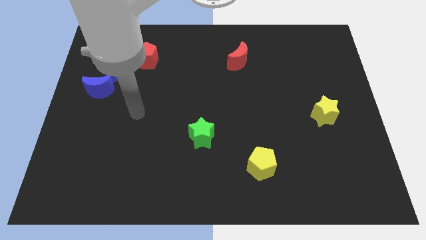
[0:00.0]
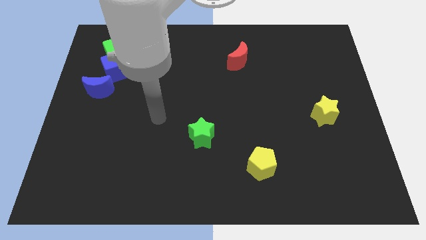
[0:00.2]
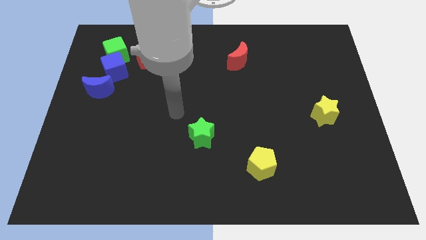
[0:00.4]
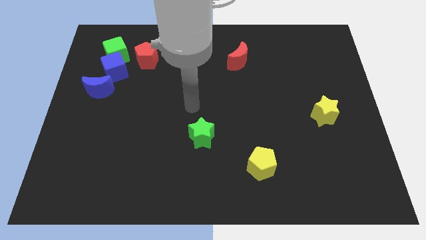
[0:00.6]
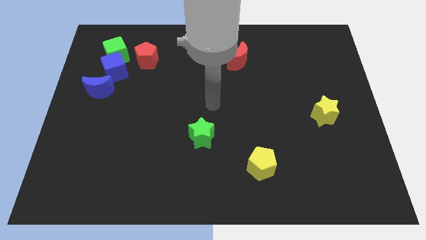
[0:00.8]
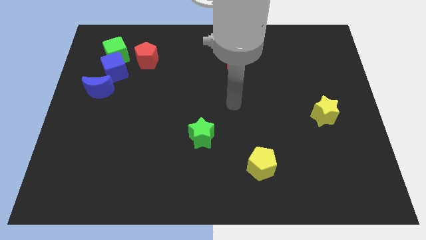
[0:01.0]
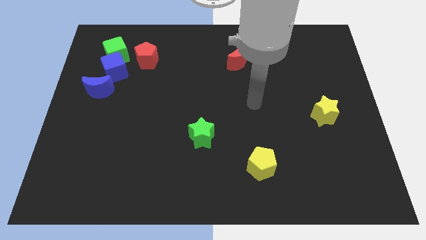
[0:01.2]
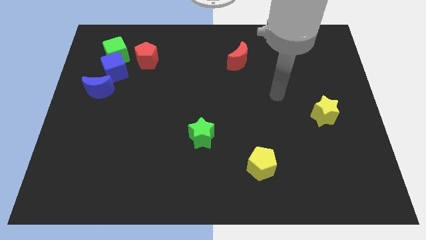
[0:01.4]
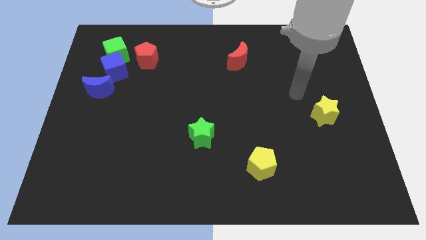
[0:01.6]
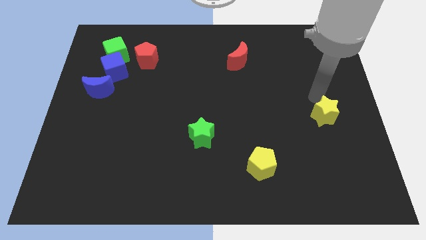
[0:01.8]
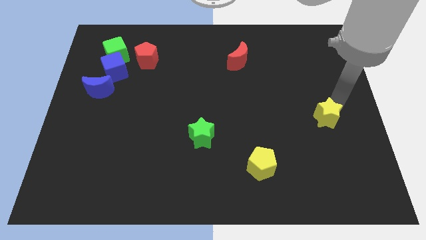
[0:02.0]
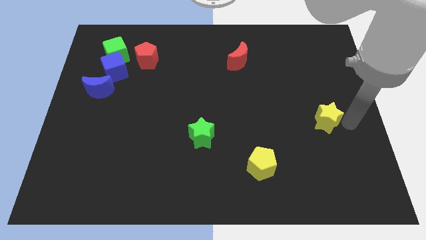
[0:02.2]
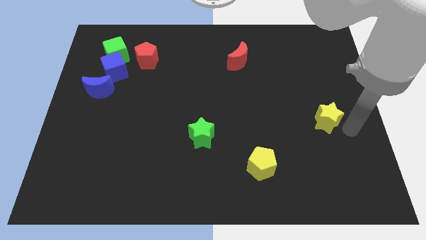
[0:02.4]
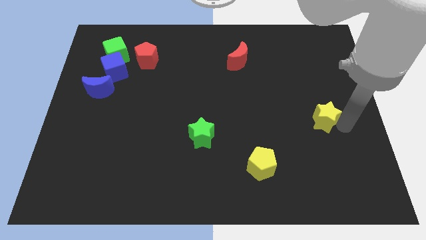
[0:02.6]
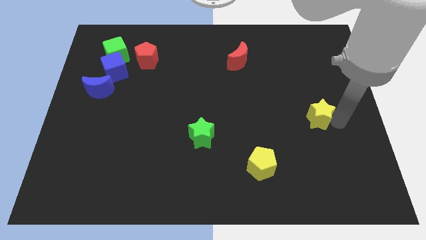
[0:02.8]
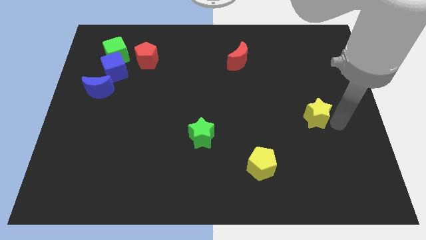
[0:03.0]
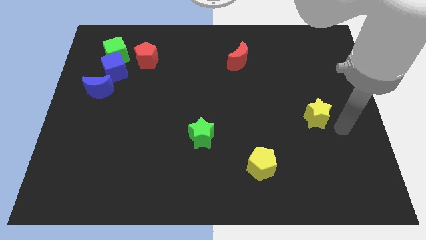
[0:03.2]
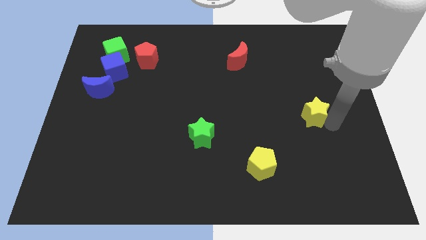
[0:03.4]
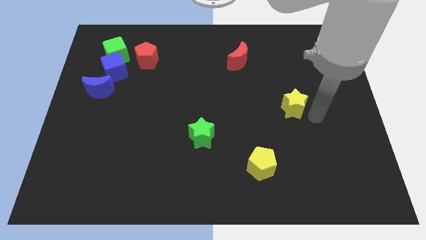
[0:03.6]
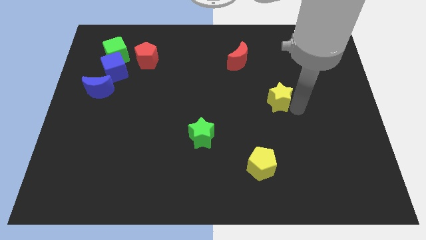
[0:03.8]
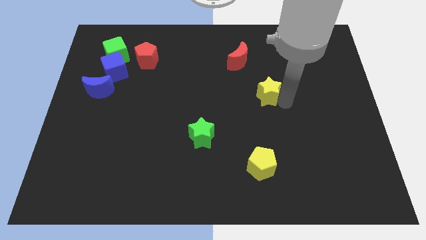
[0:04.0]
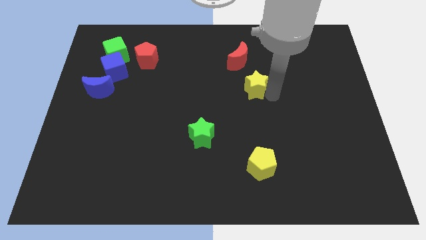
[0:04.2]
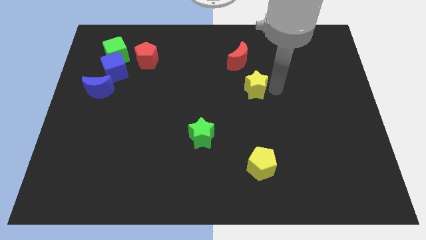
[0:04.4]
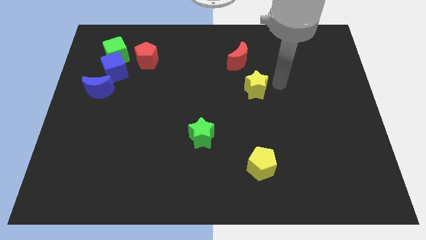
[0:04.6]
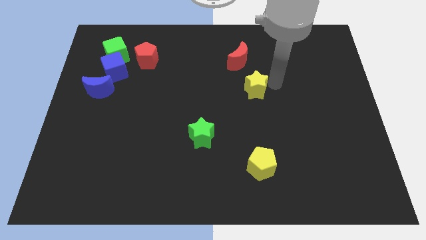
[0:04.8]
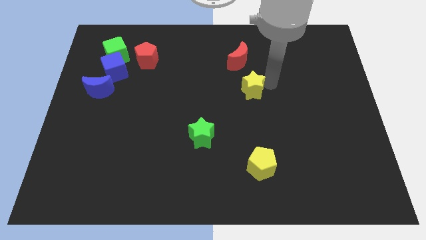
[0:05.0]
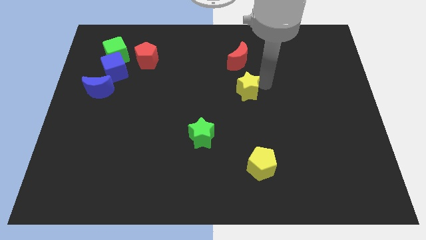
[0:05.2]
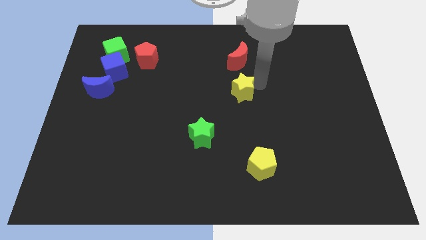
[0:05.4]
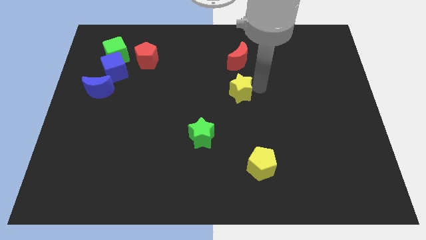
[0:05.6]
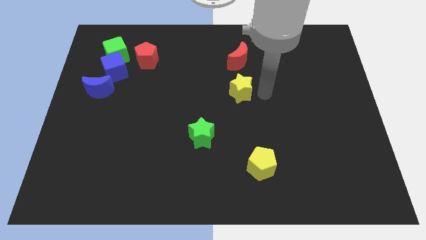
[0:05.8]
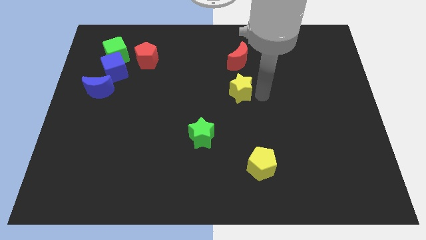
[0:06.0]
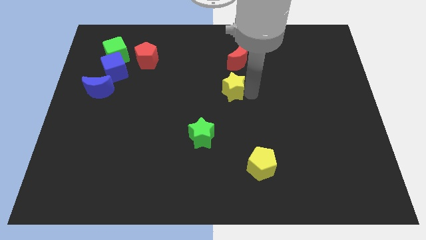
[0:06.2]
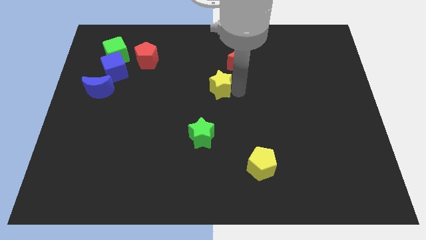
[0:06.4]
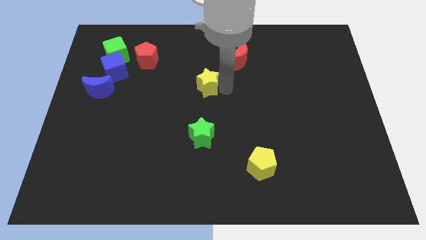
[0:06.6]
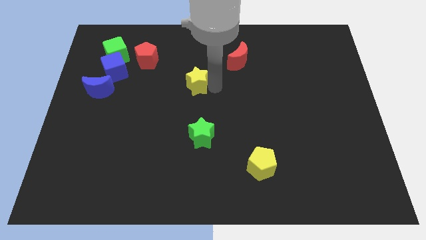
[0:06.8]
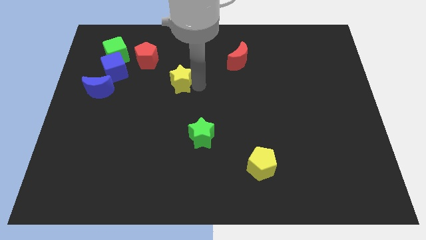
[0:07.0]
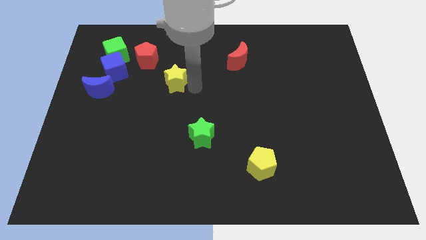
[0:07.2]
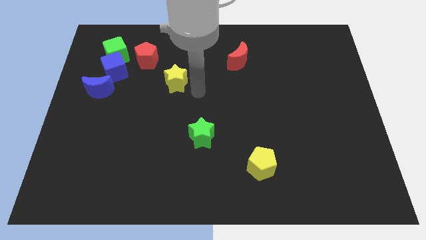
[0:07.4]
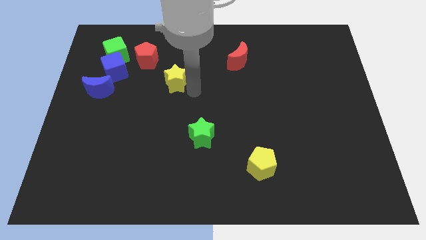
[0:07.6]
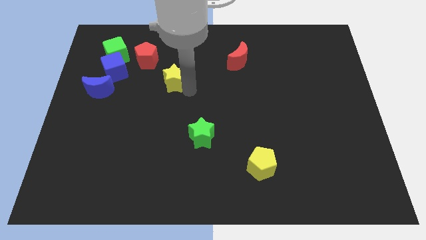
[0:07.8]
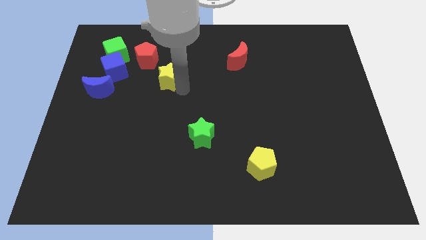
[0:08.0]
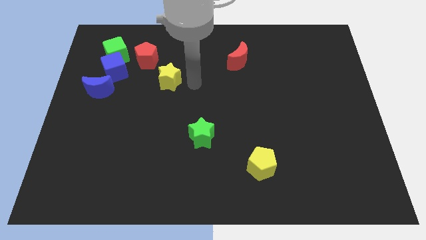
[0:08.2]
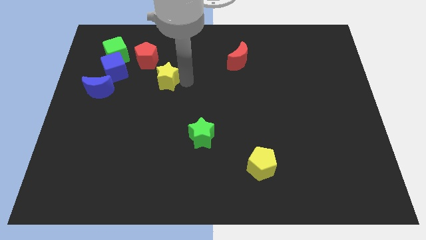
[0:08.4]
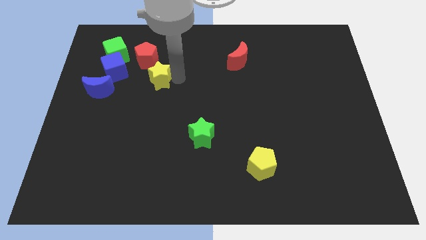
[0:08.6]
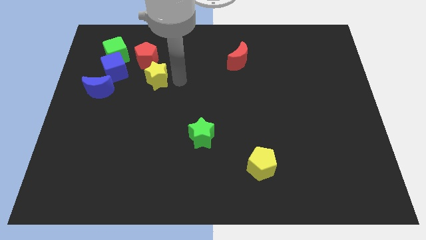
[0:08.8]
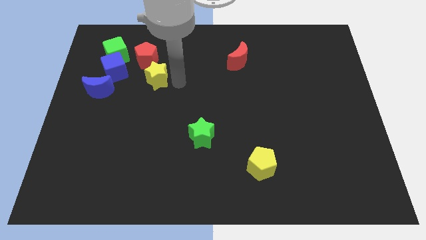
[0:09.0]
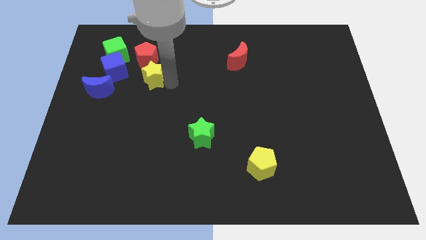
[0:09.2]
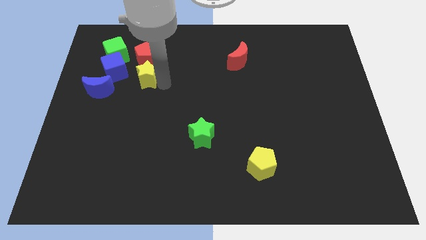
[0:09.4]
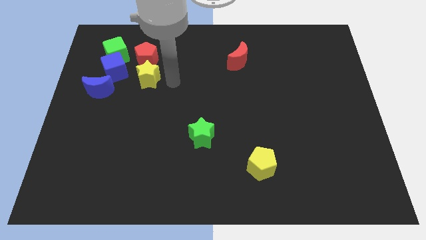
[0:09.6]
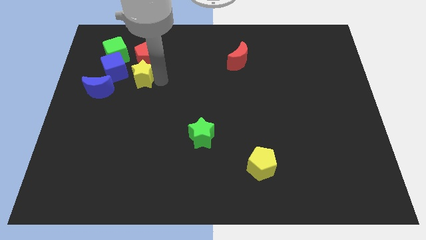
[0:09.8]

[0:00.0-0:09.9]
put the yellow star to the top right side of the blue moon

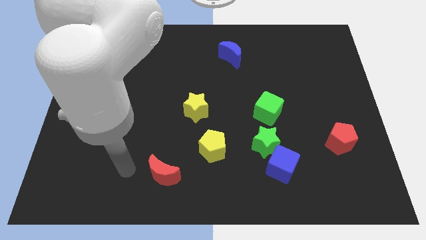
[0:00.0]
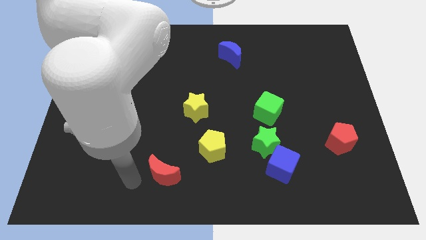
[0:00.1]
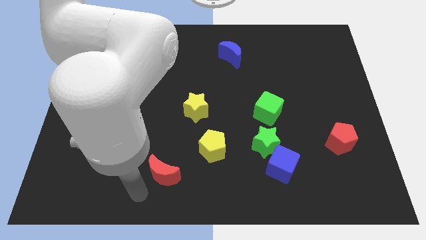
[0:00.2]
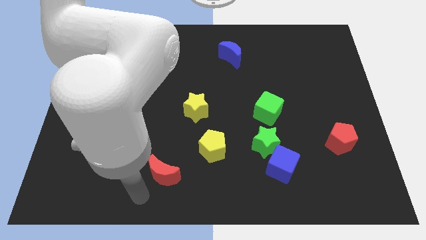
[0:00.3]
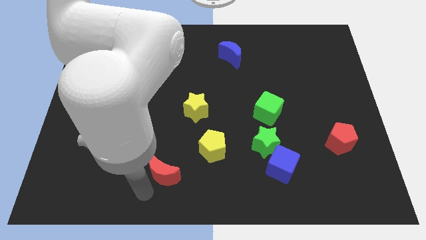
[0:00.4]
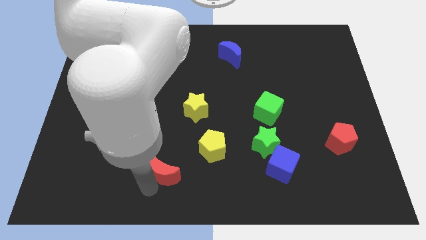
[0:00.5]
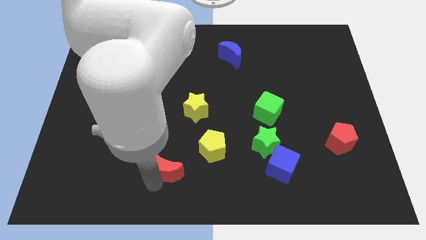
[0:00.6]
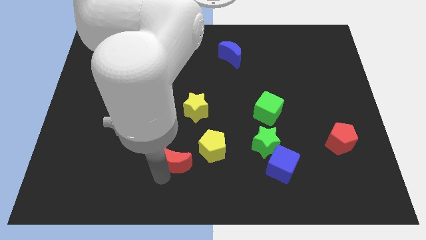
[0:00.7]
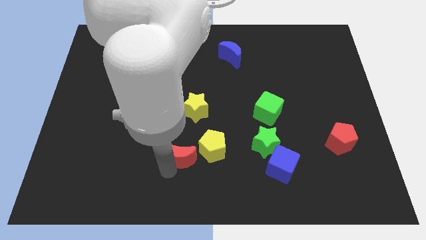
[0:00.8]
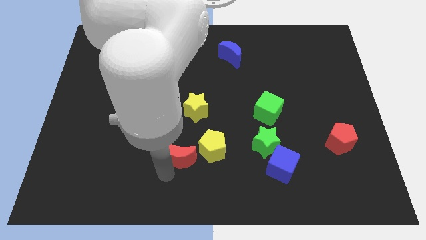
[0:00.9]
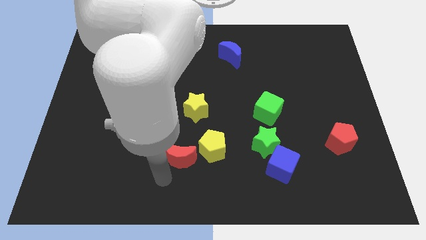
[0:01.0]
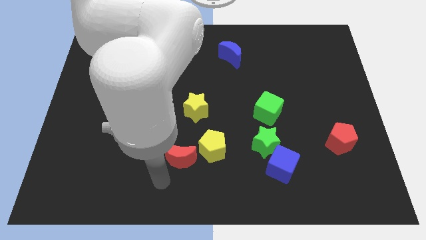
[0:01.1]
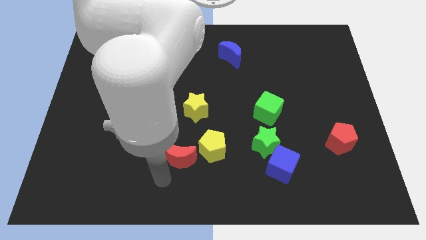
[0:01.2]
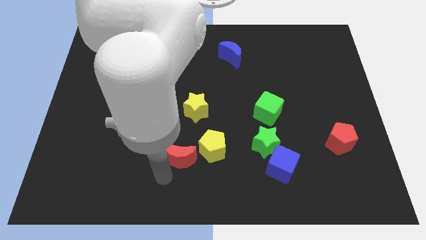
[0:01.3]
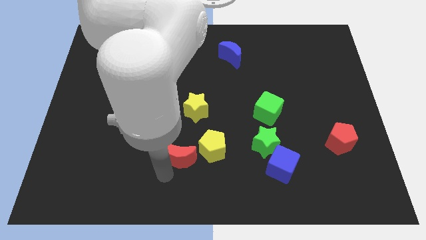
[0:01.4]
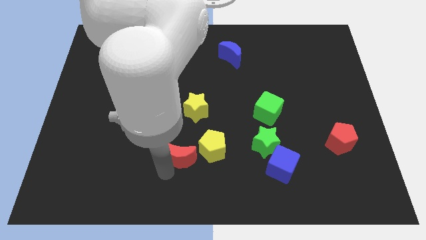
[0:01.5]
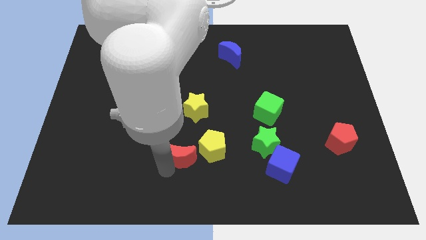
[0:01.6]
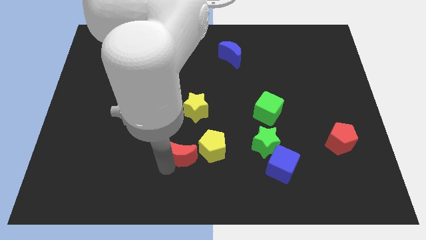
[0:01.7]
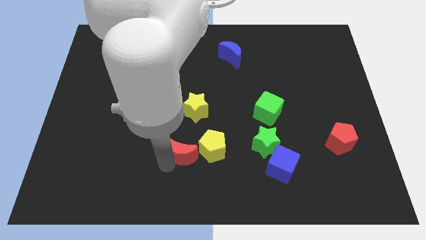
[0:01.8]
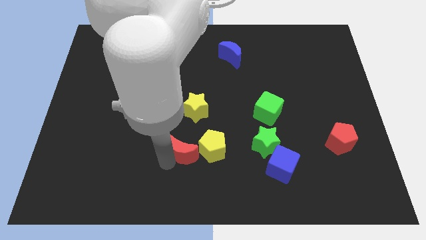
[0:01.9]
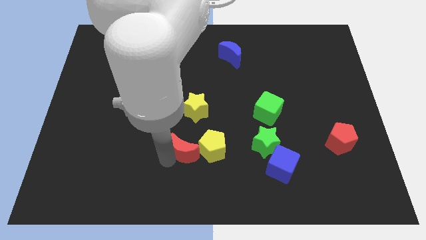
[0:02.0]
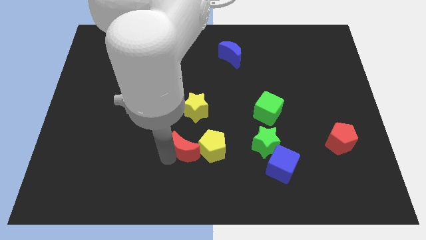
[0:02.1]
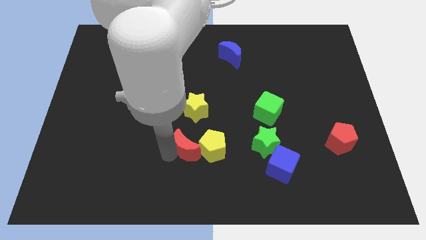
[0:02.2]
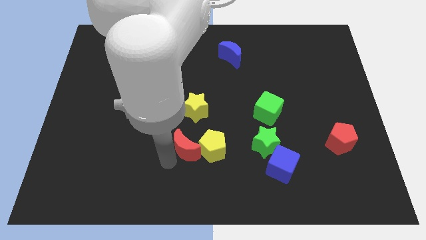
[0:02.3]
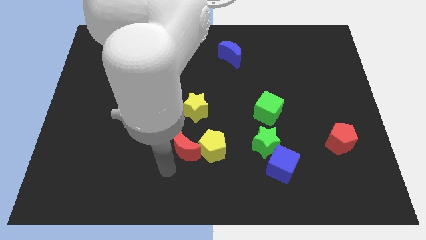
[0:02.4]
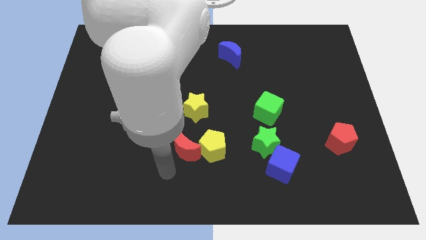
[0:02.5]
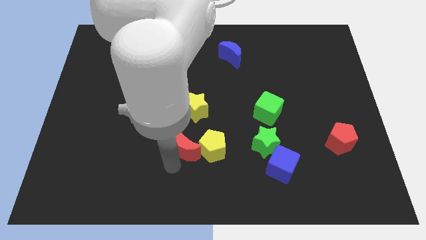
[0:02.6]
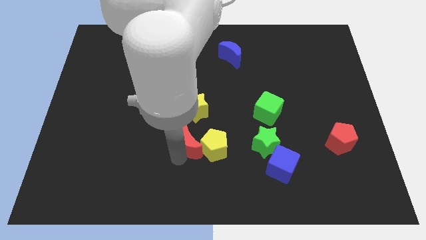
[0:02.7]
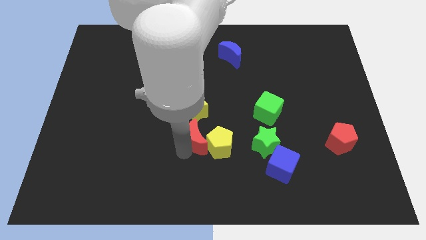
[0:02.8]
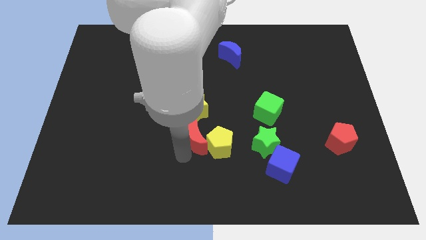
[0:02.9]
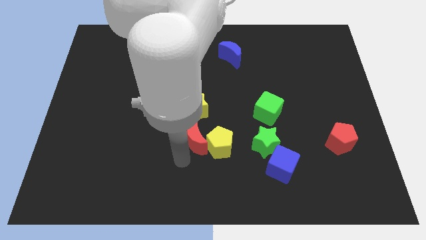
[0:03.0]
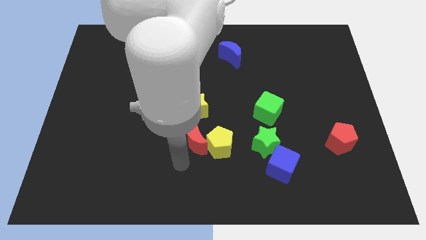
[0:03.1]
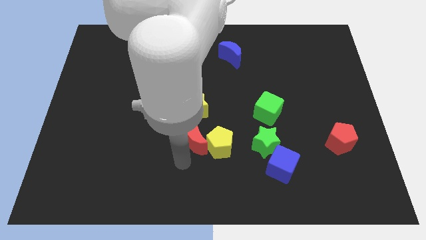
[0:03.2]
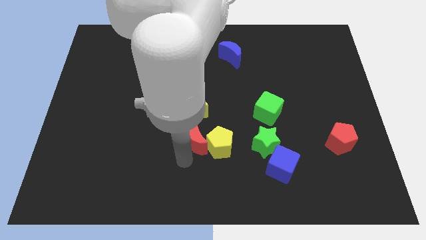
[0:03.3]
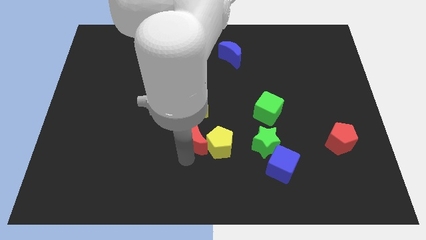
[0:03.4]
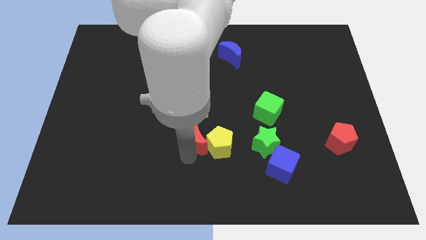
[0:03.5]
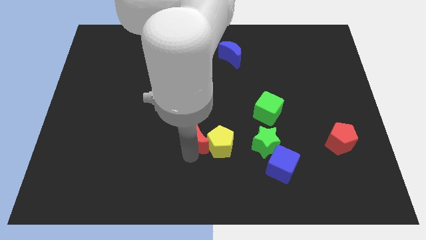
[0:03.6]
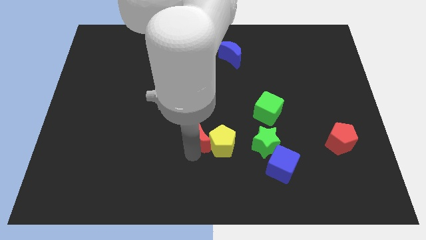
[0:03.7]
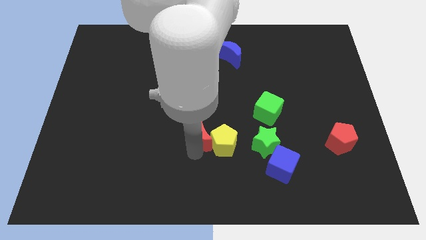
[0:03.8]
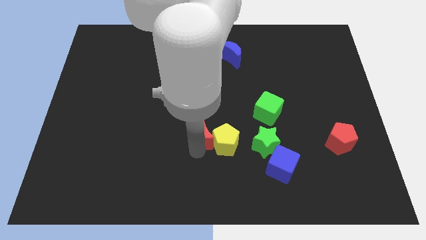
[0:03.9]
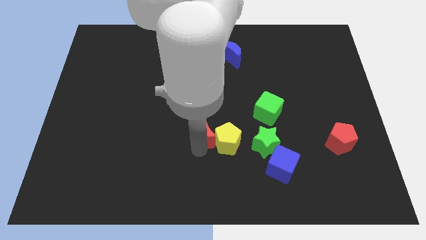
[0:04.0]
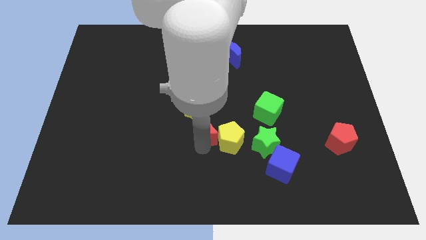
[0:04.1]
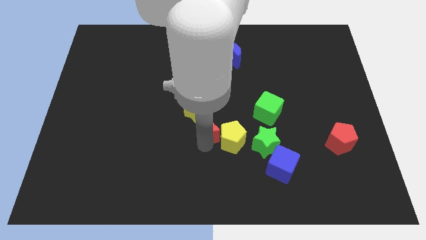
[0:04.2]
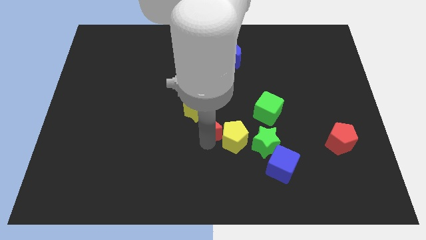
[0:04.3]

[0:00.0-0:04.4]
push the red moon to the left side of the green cube
